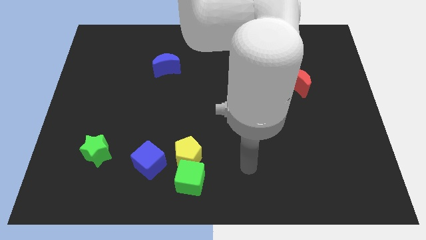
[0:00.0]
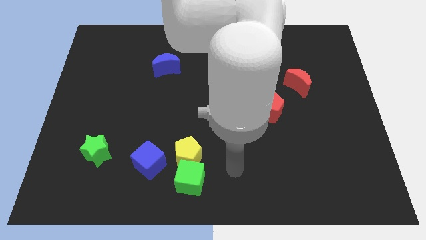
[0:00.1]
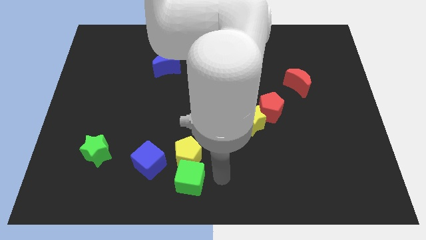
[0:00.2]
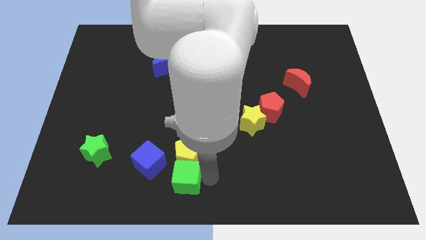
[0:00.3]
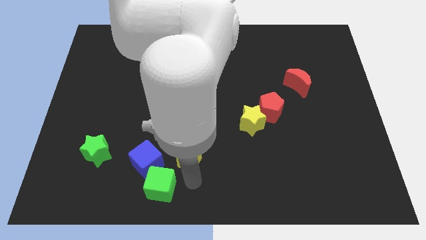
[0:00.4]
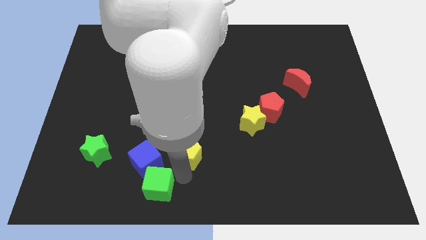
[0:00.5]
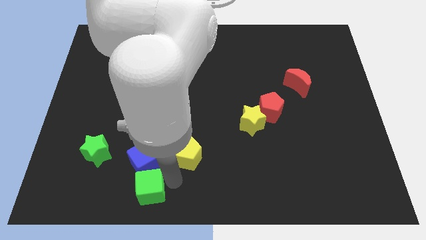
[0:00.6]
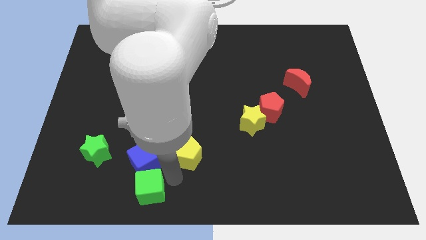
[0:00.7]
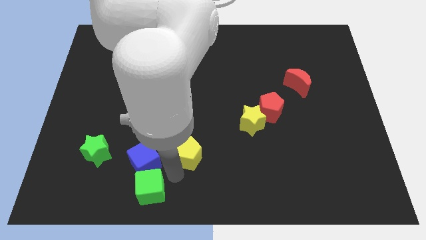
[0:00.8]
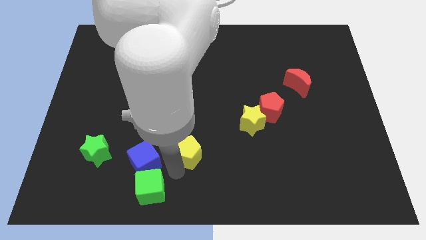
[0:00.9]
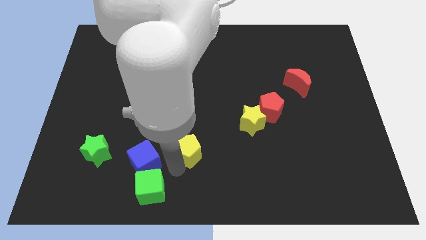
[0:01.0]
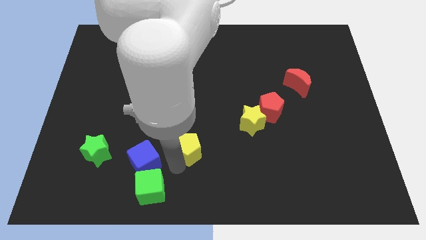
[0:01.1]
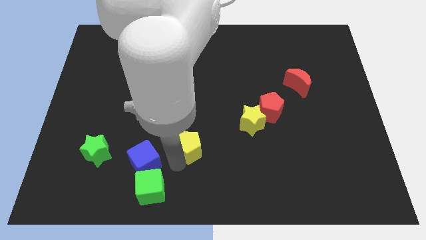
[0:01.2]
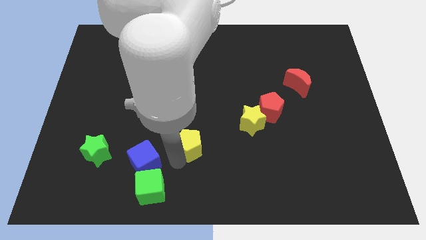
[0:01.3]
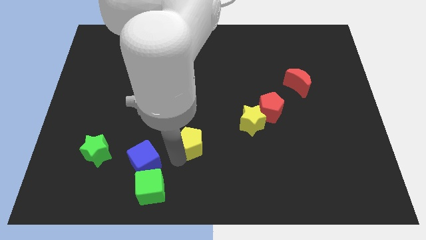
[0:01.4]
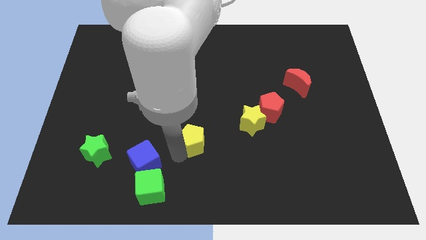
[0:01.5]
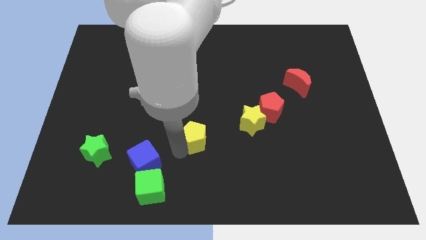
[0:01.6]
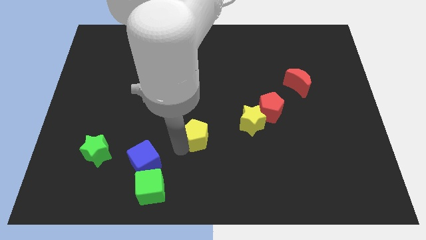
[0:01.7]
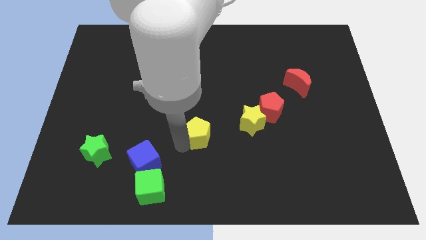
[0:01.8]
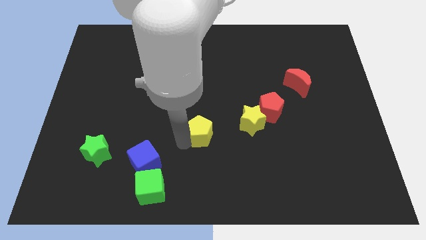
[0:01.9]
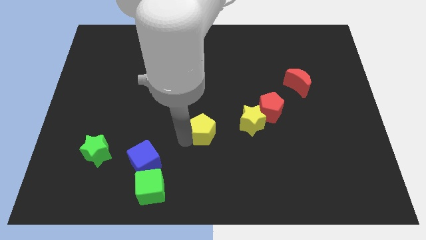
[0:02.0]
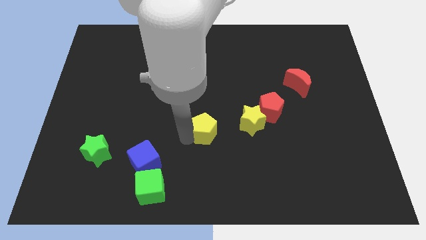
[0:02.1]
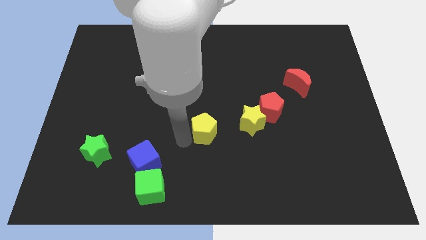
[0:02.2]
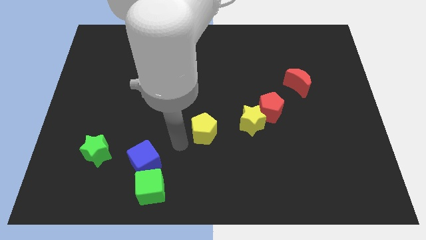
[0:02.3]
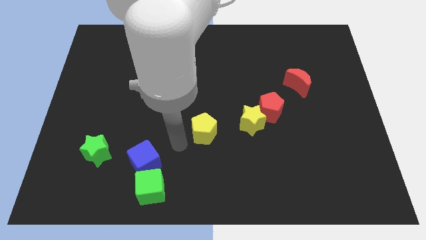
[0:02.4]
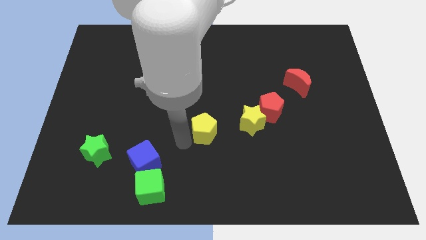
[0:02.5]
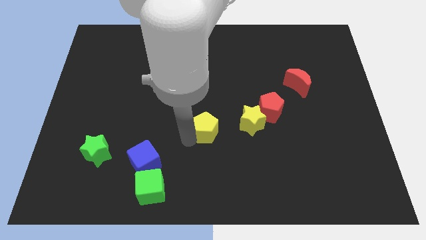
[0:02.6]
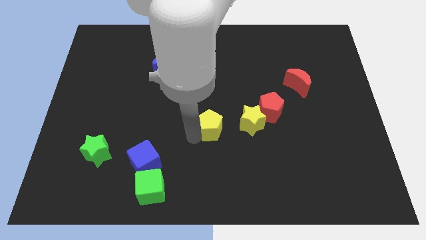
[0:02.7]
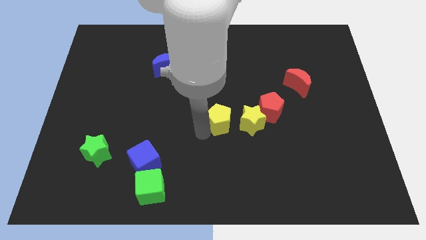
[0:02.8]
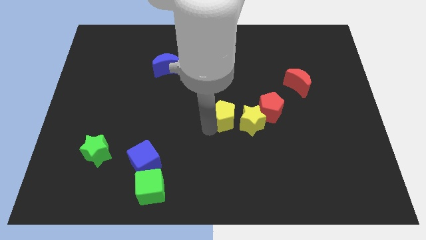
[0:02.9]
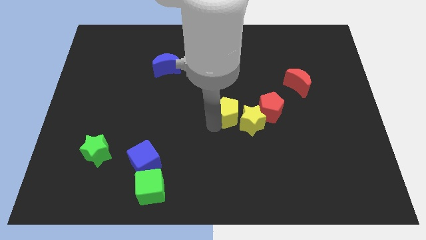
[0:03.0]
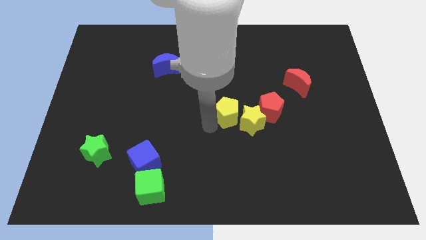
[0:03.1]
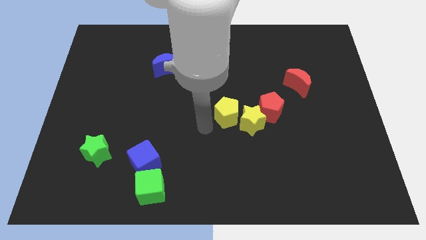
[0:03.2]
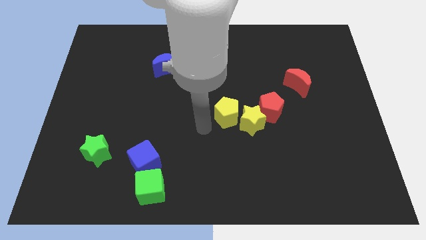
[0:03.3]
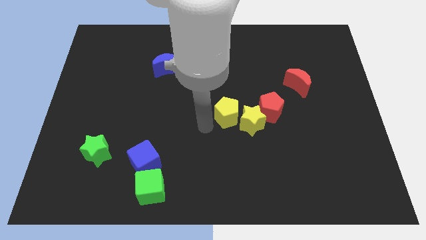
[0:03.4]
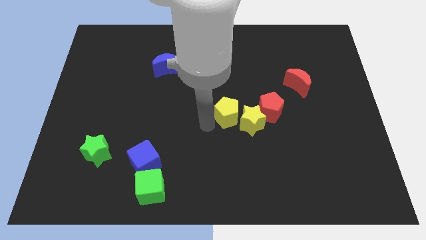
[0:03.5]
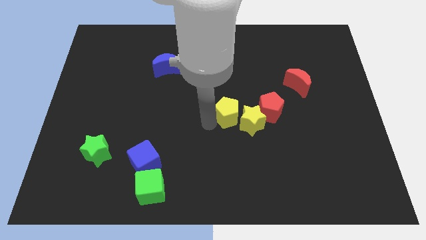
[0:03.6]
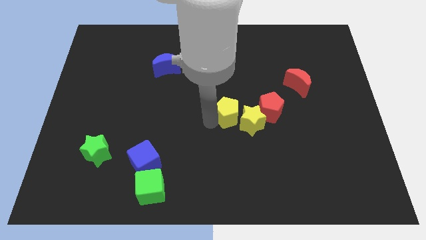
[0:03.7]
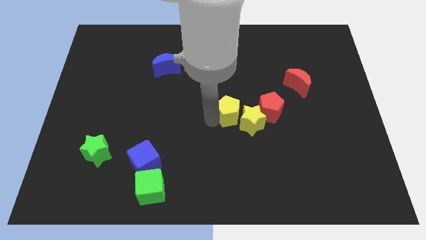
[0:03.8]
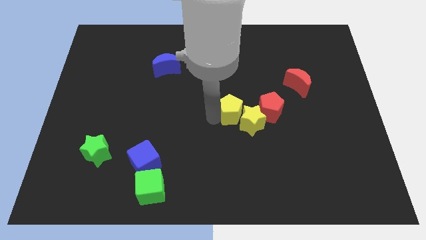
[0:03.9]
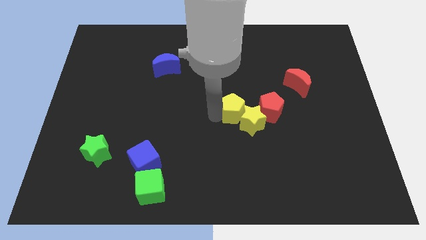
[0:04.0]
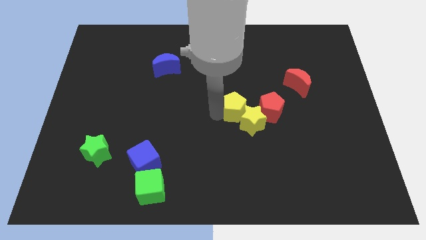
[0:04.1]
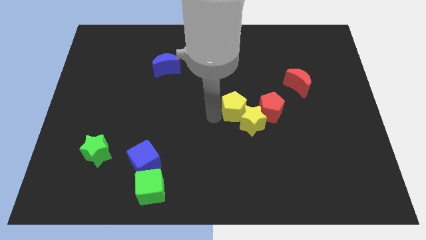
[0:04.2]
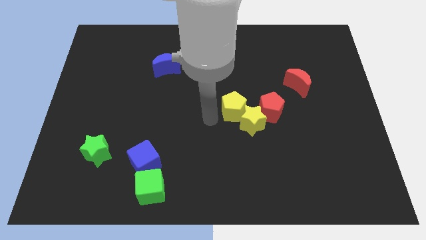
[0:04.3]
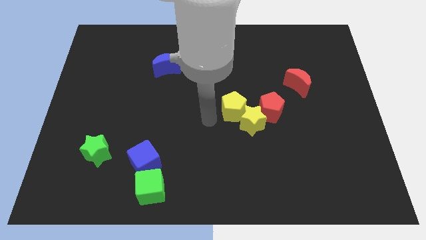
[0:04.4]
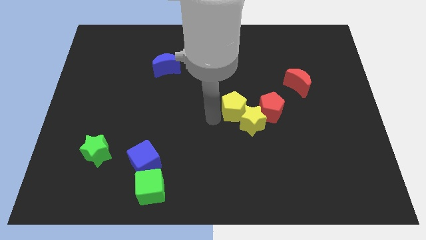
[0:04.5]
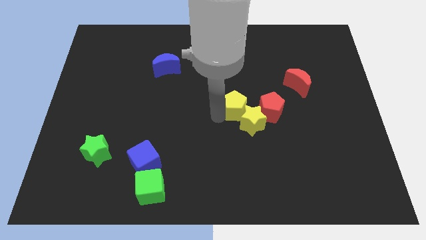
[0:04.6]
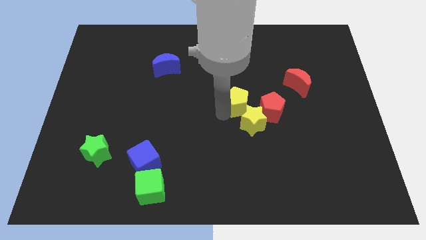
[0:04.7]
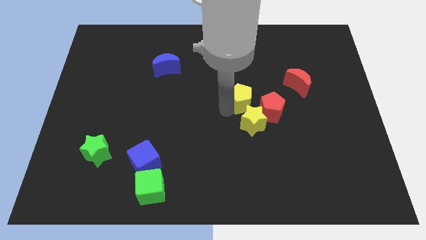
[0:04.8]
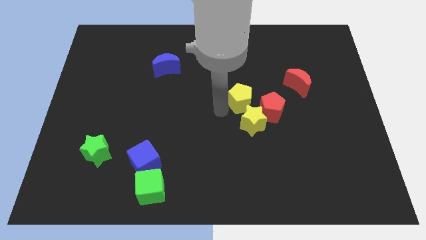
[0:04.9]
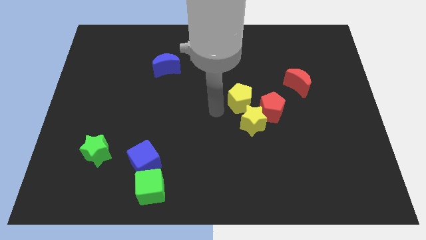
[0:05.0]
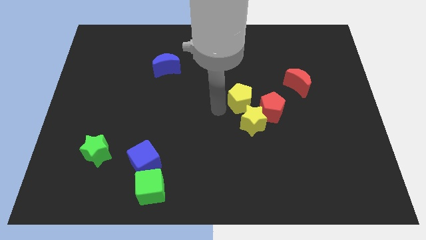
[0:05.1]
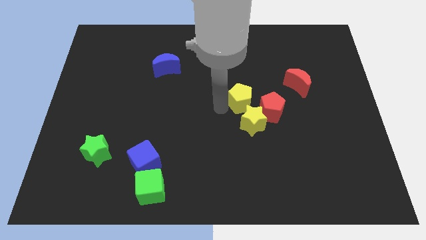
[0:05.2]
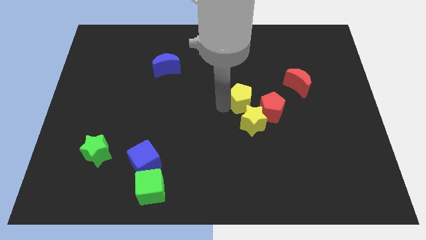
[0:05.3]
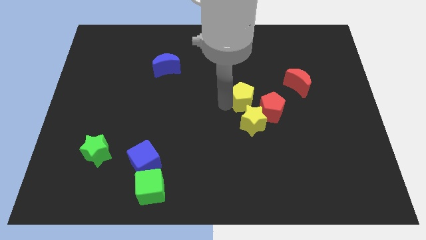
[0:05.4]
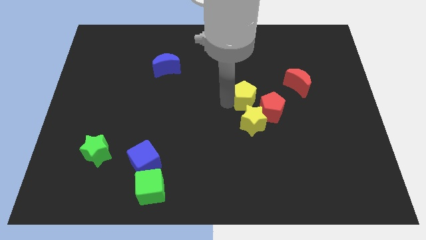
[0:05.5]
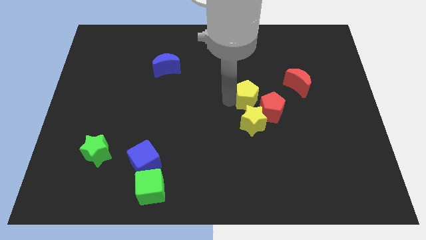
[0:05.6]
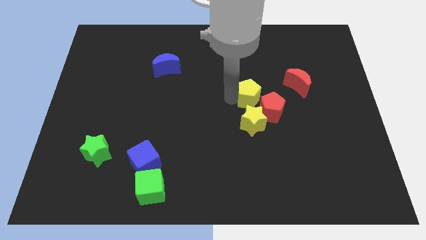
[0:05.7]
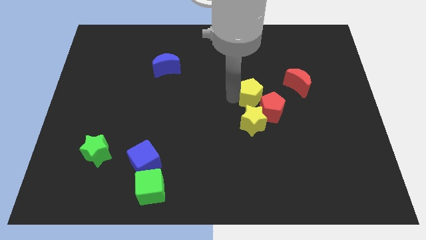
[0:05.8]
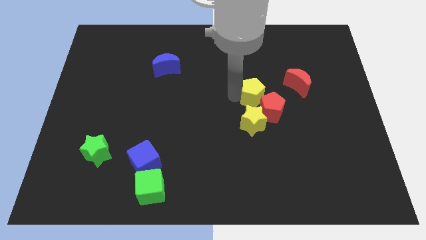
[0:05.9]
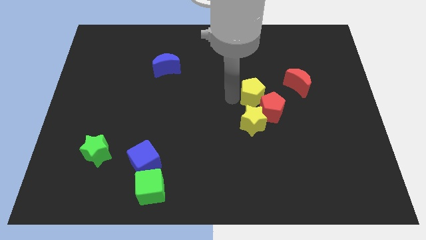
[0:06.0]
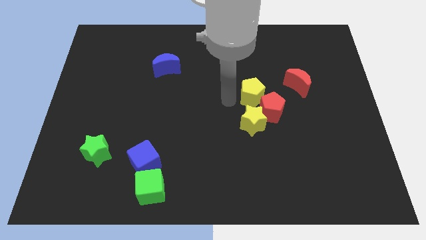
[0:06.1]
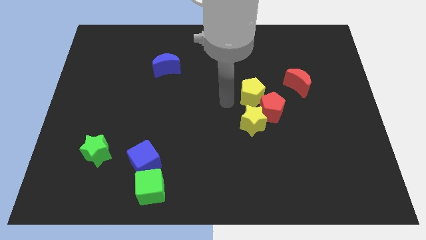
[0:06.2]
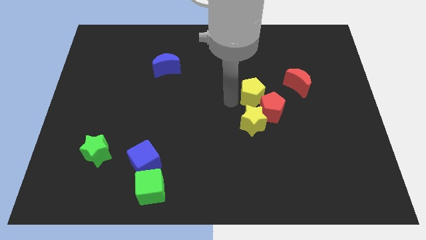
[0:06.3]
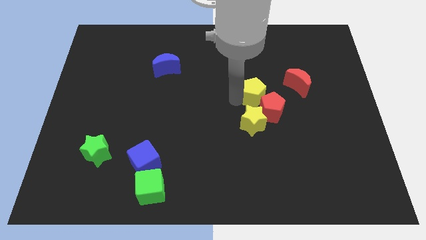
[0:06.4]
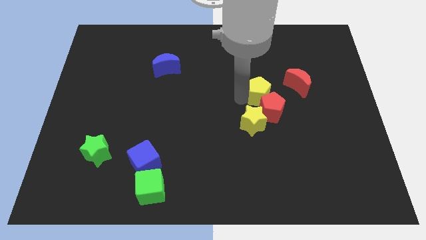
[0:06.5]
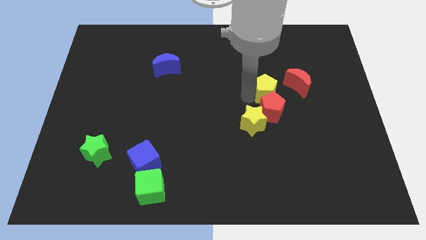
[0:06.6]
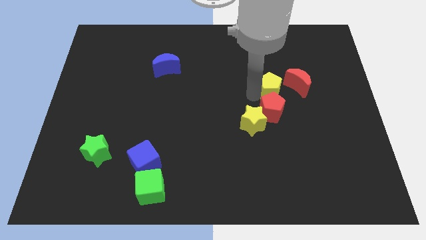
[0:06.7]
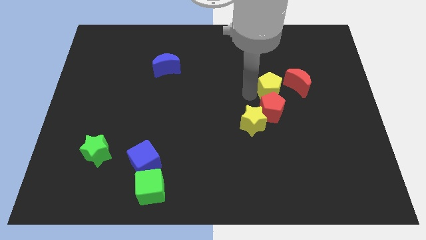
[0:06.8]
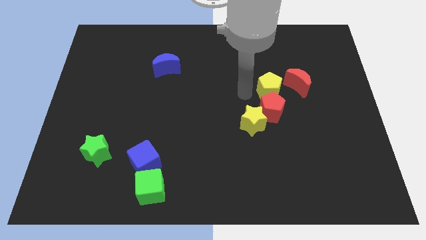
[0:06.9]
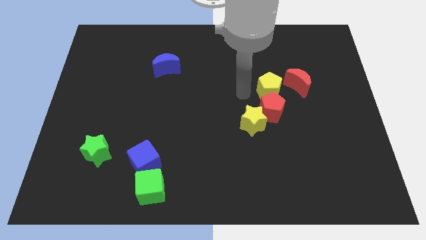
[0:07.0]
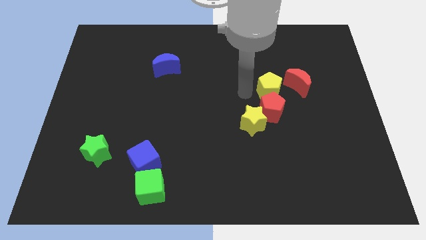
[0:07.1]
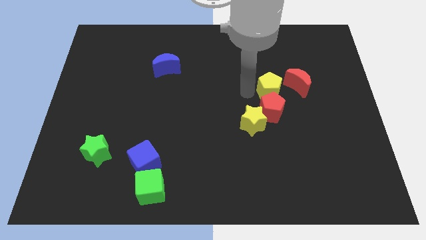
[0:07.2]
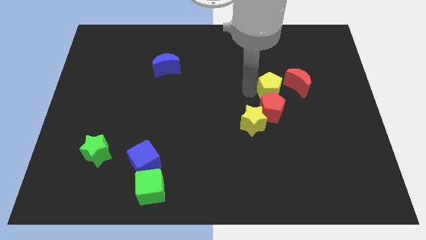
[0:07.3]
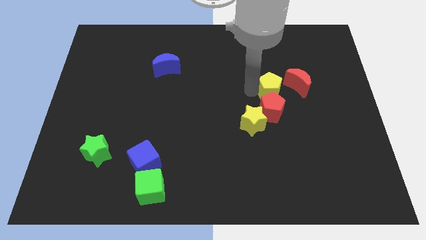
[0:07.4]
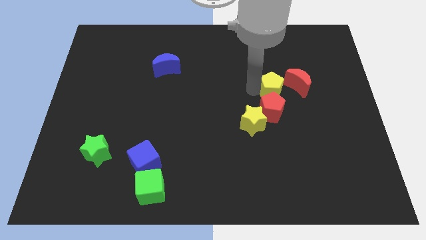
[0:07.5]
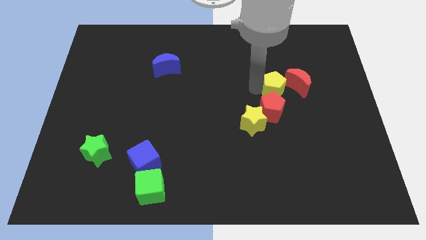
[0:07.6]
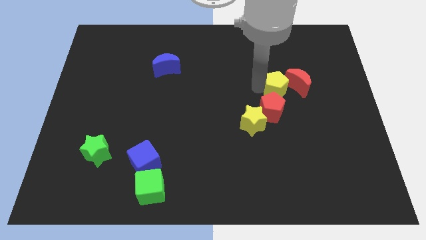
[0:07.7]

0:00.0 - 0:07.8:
push the yellow pentagon to the red moon

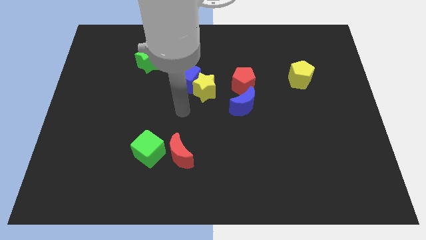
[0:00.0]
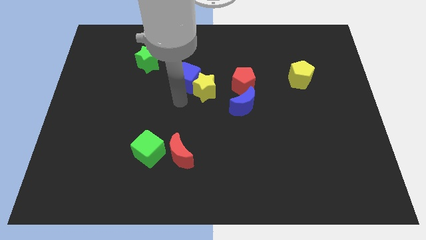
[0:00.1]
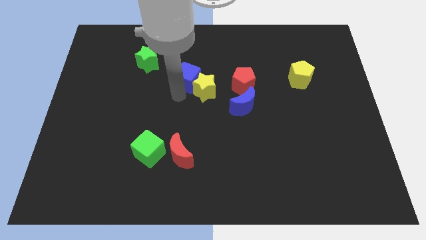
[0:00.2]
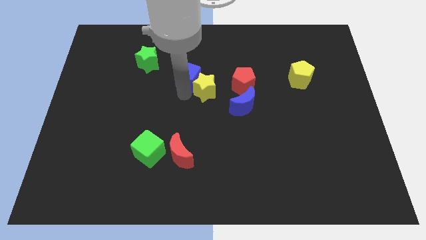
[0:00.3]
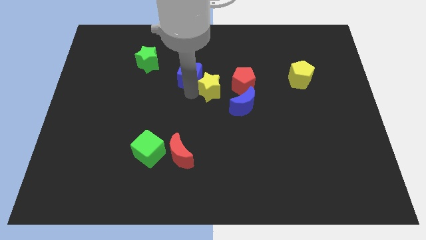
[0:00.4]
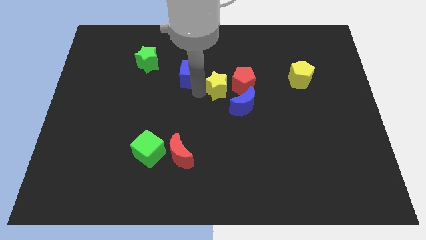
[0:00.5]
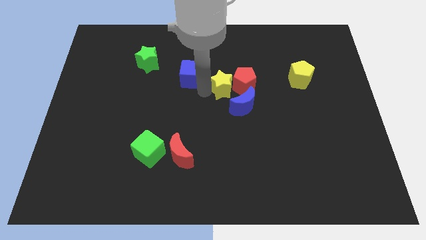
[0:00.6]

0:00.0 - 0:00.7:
move the yellow star towards the red pentagon
